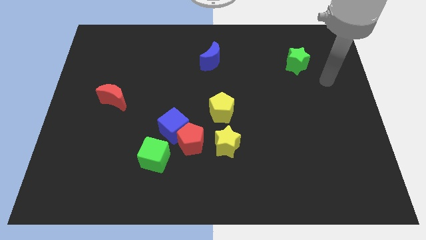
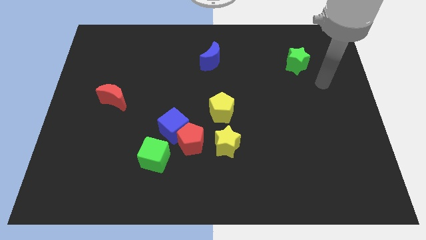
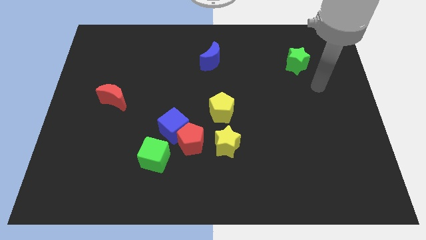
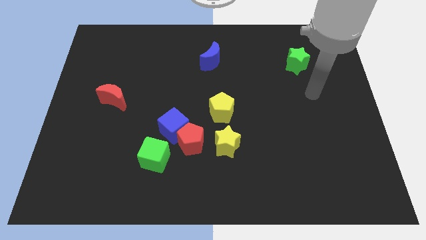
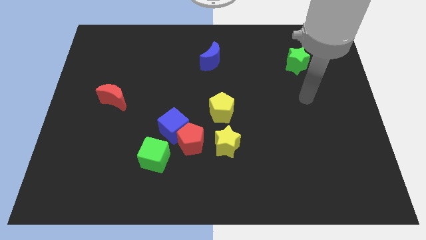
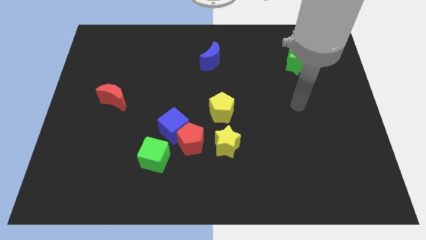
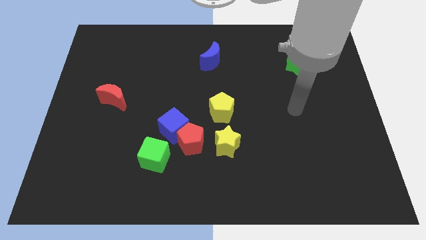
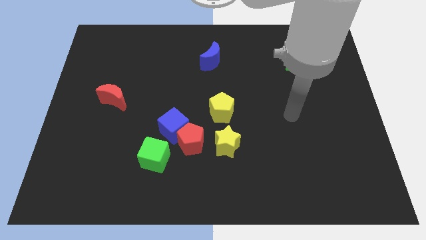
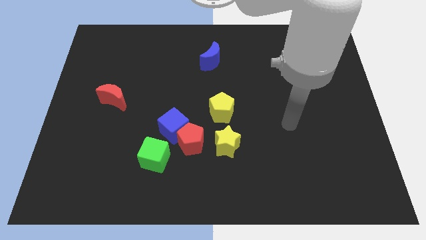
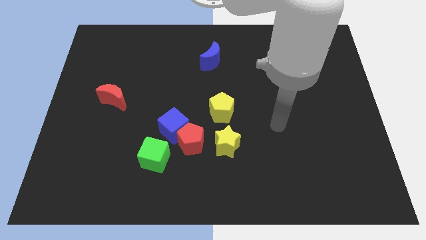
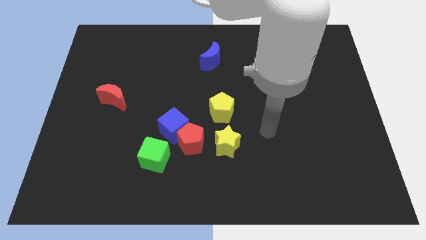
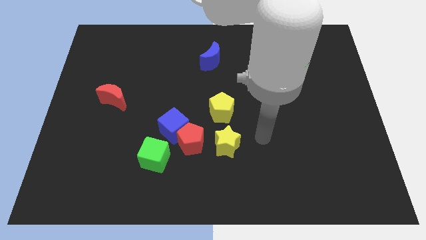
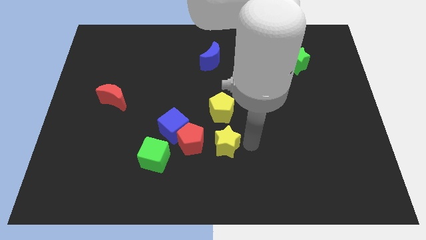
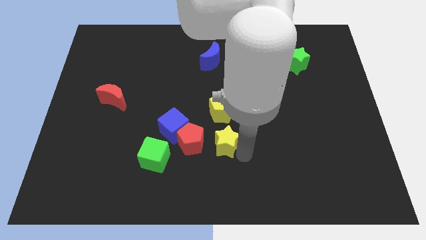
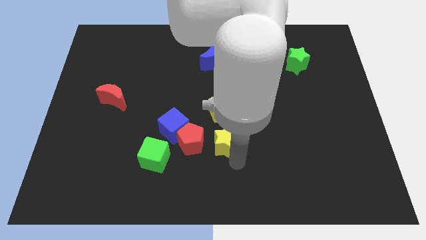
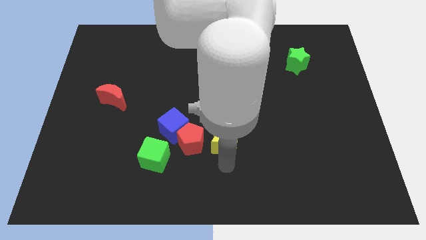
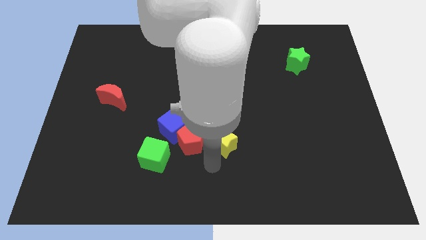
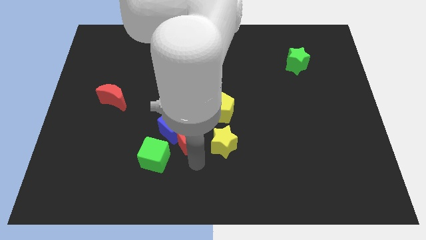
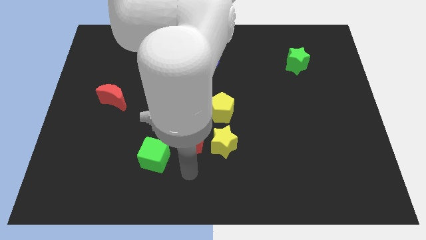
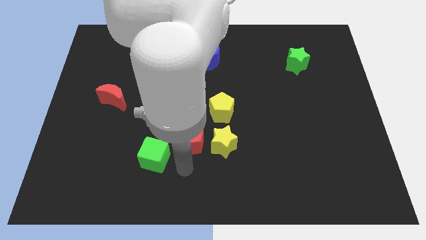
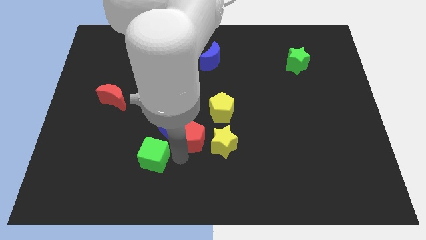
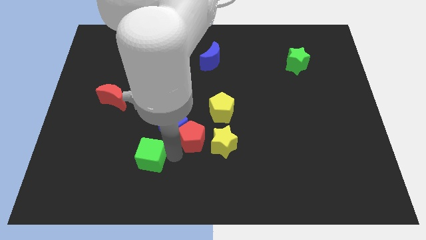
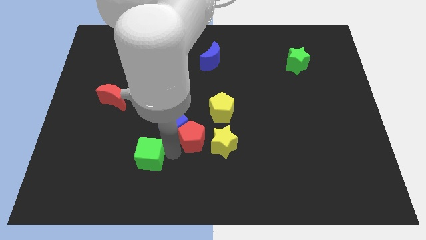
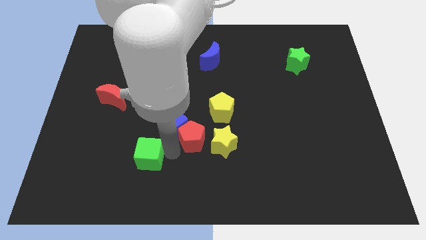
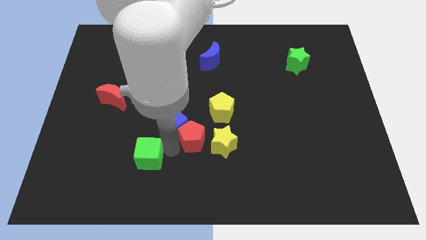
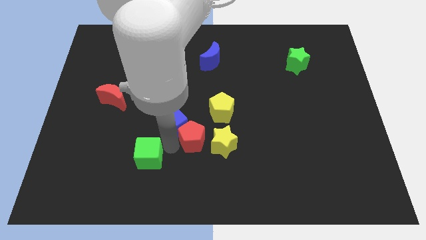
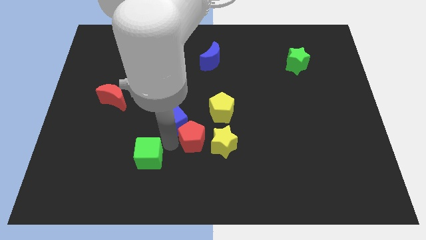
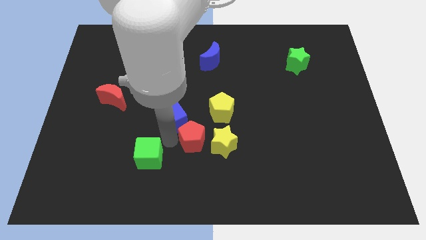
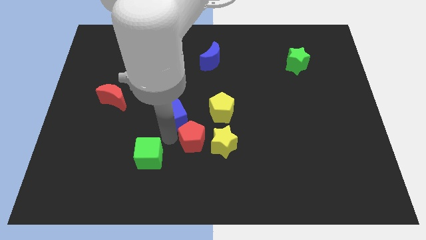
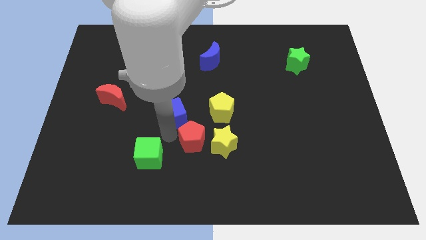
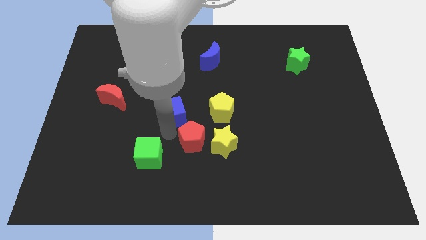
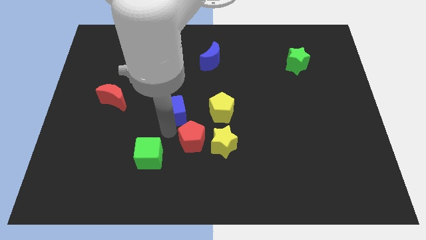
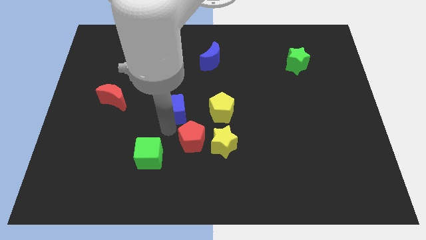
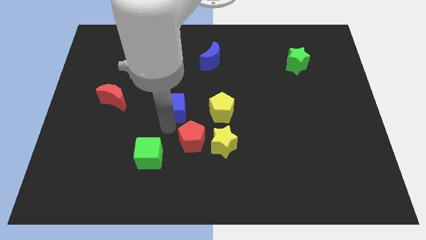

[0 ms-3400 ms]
move the blue cube away from the red pentagon and green cube

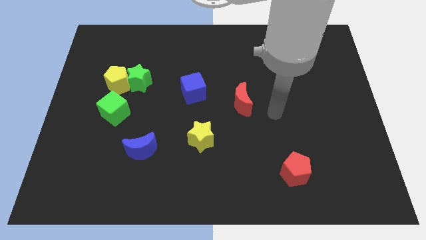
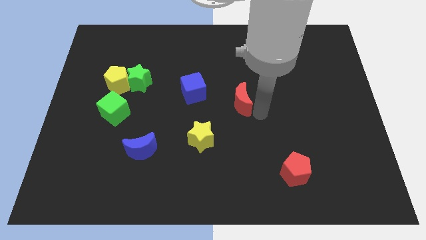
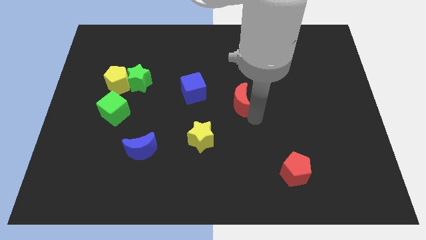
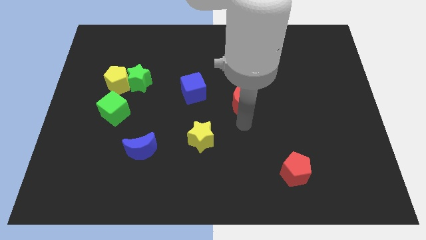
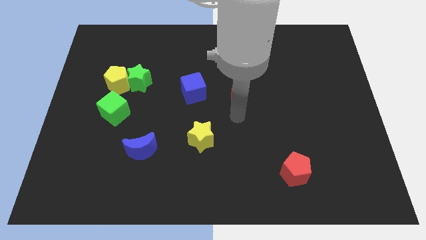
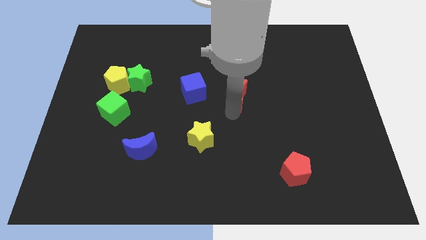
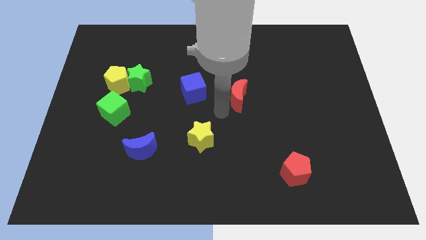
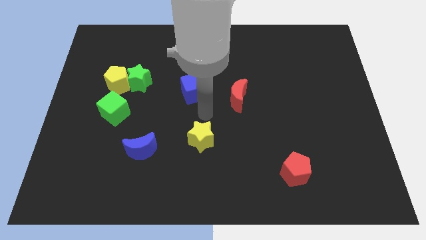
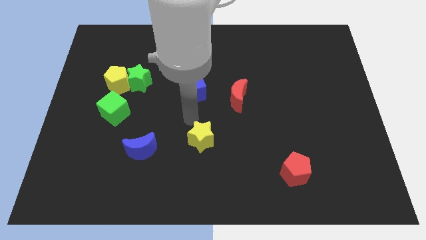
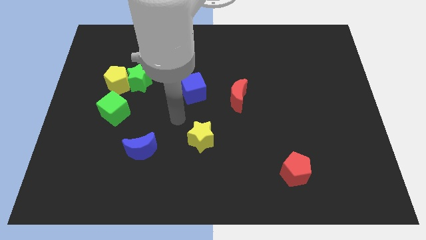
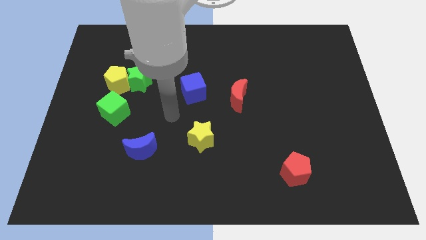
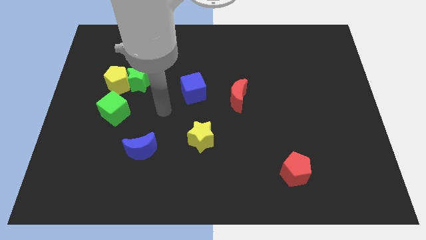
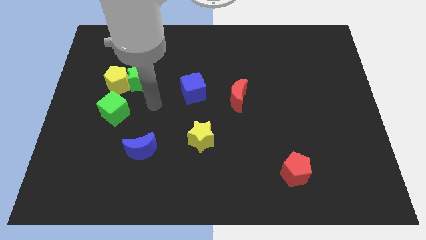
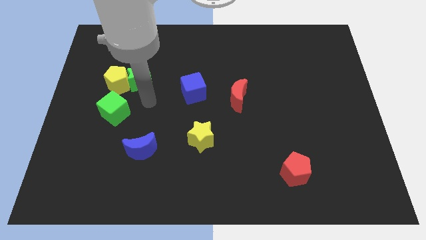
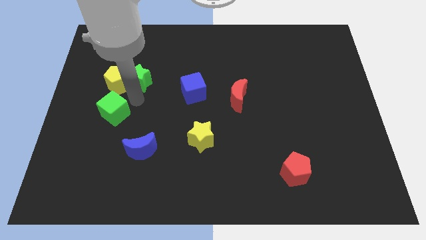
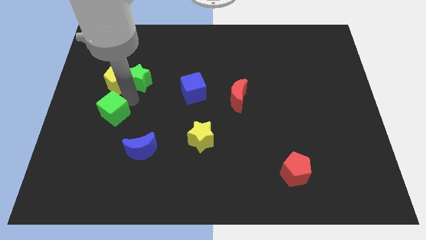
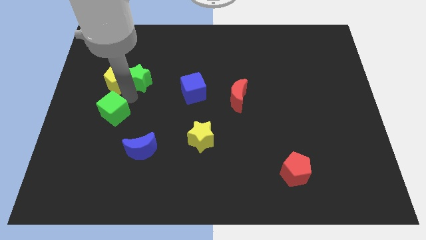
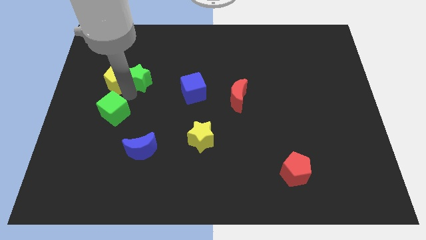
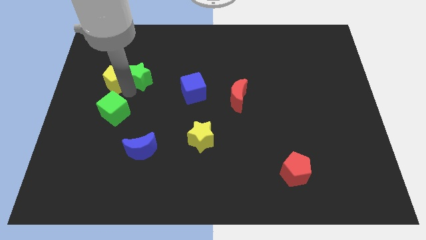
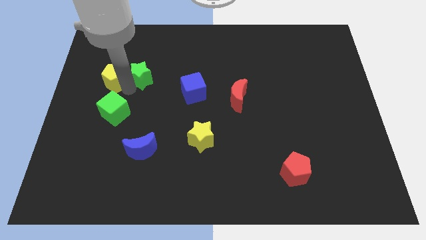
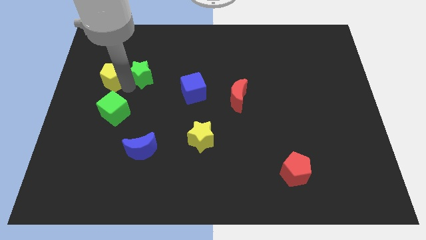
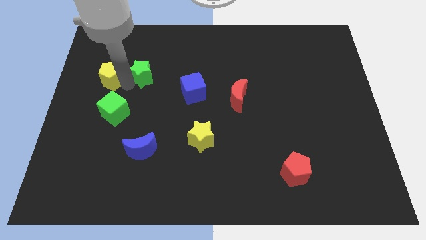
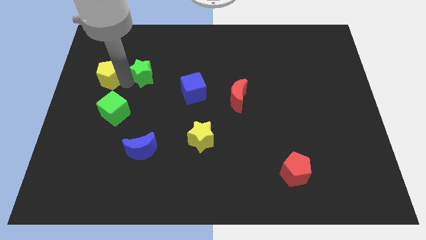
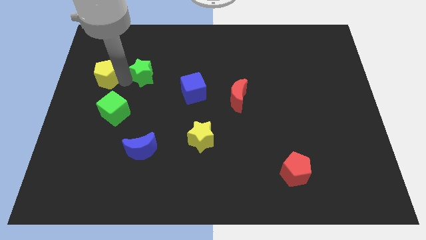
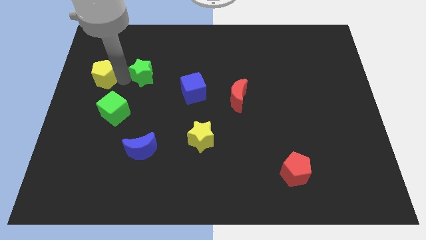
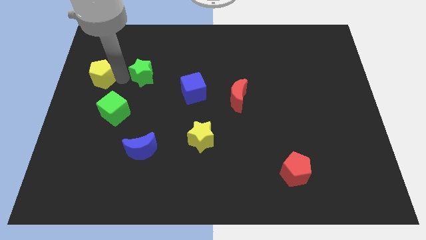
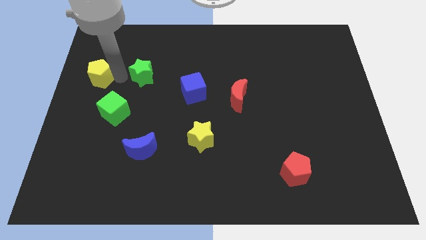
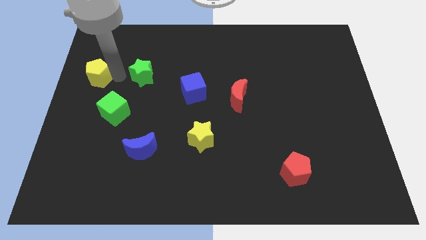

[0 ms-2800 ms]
pull the yellow pentagon apart from the green star and green cube

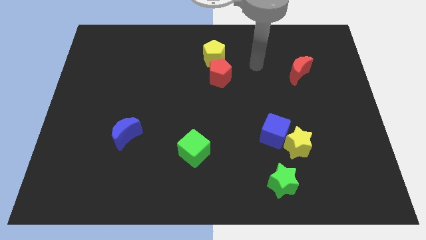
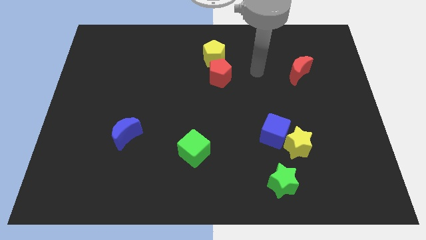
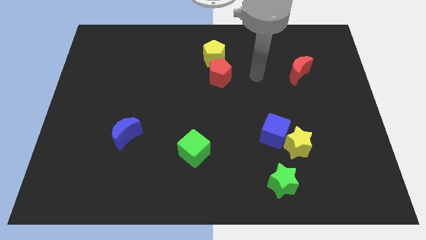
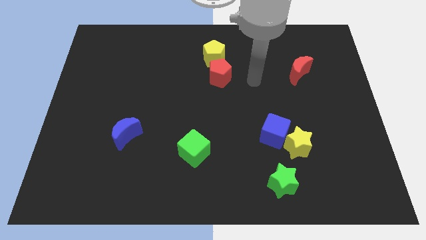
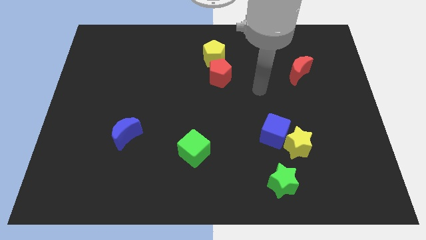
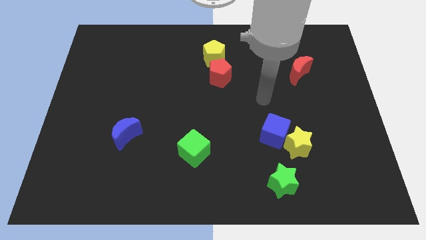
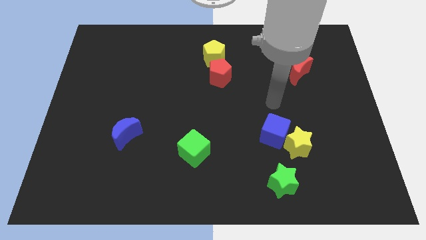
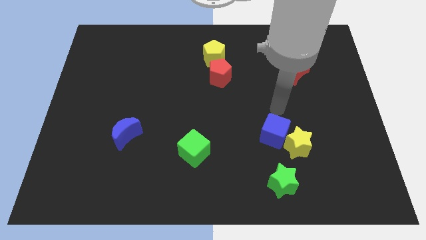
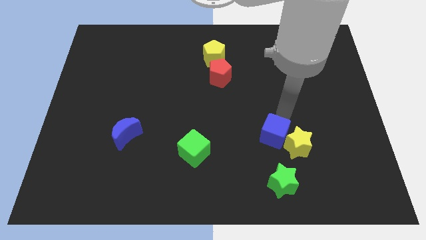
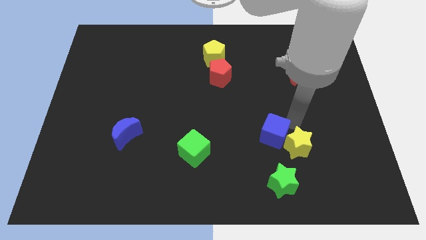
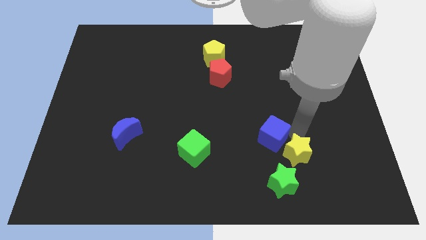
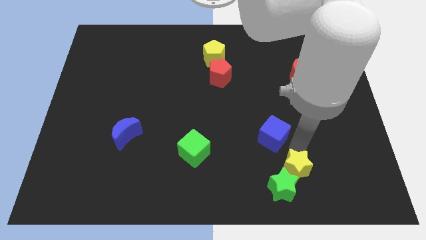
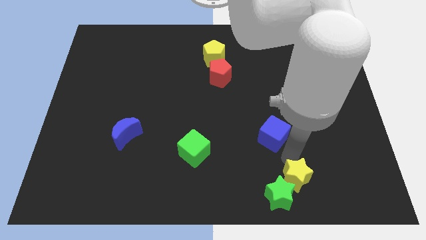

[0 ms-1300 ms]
pull the blue cube apart from the yellow star

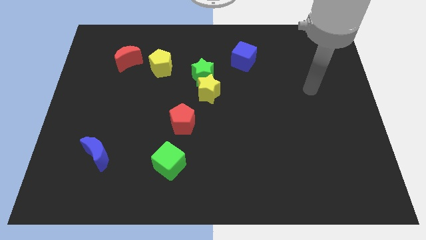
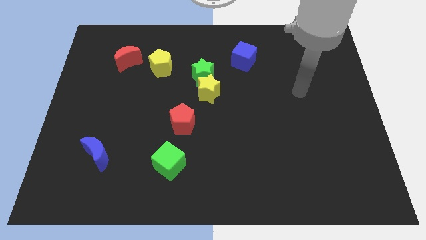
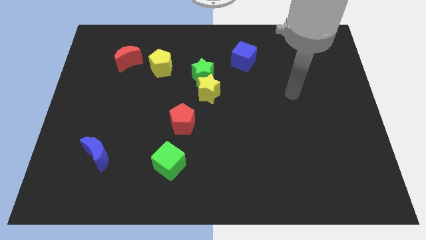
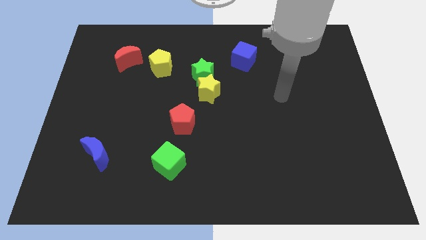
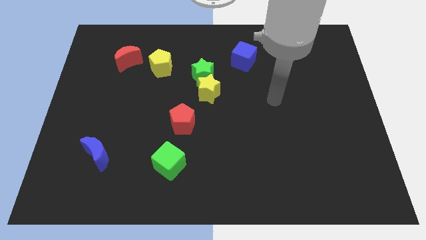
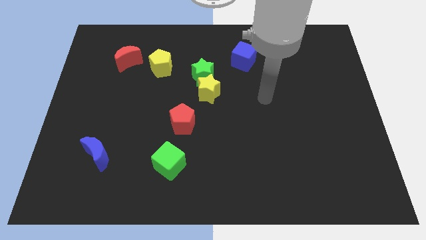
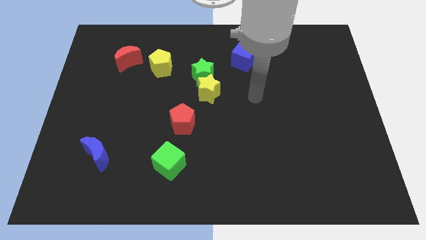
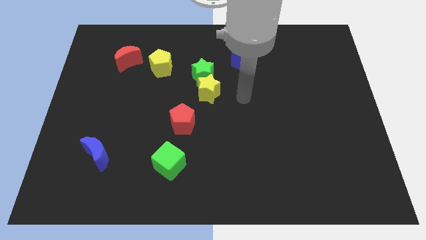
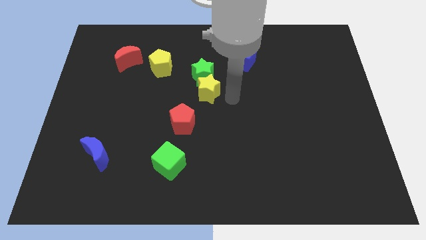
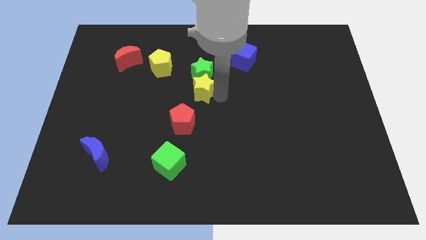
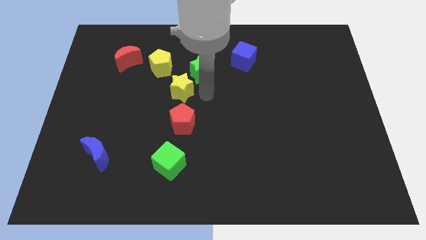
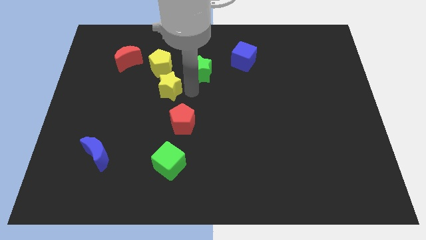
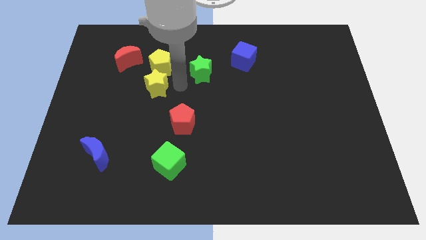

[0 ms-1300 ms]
move the green star away from the yellow star

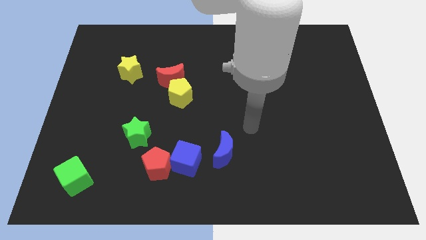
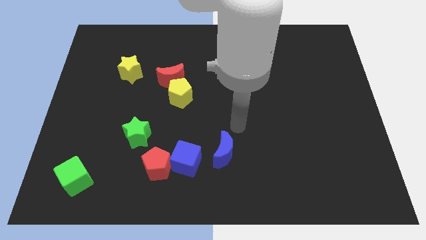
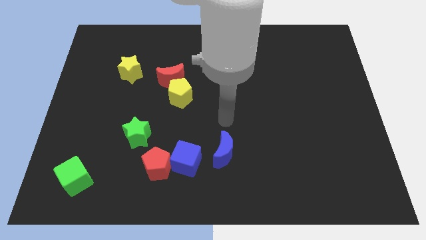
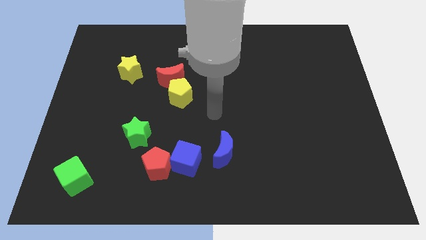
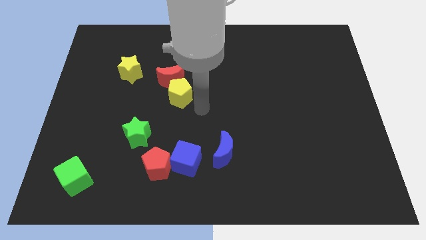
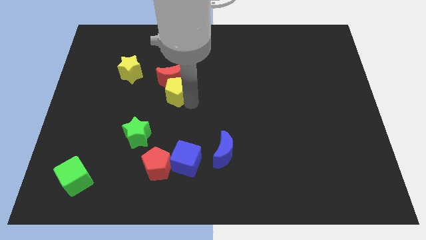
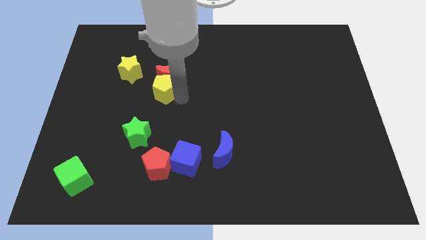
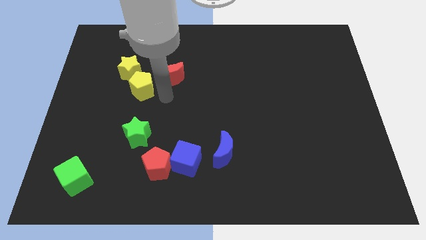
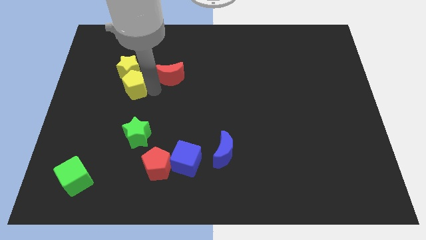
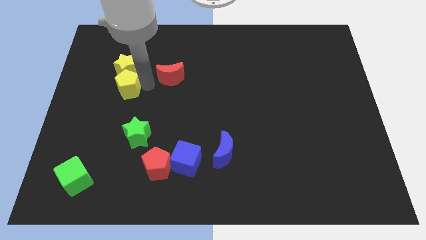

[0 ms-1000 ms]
move the red moon away from the yellow pentagon
